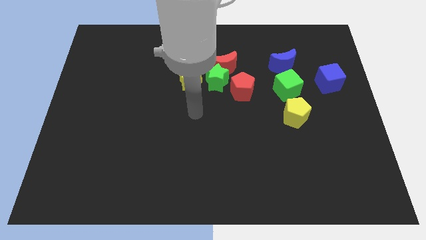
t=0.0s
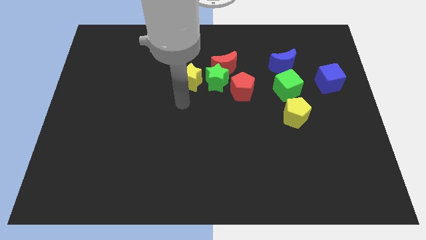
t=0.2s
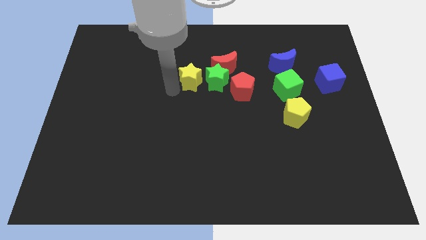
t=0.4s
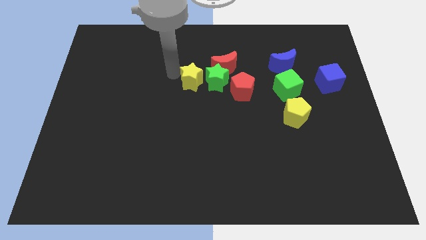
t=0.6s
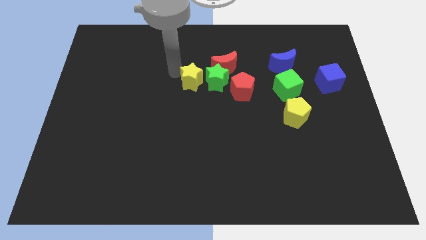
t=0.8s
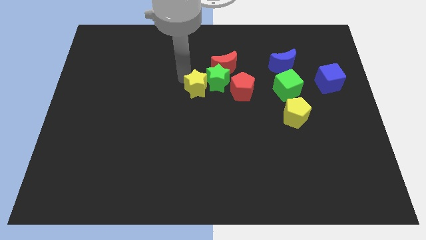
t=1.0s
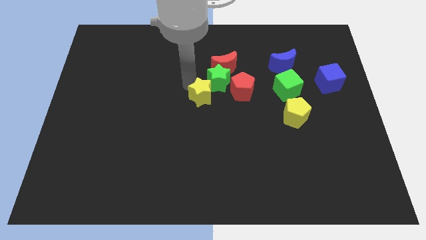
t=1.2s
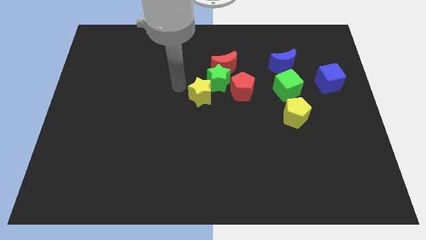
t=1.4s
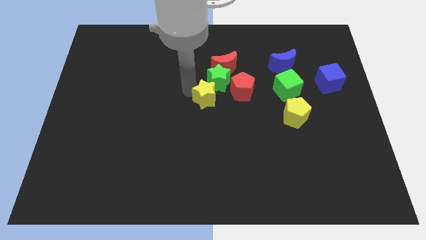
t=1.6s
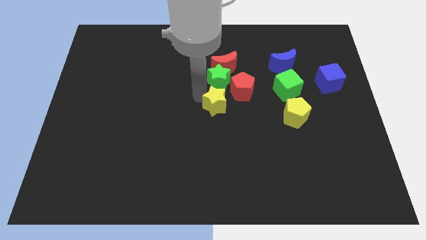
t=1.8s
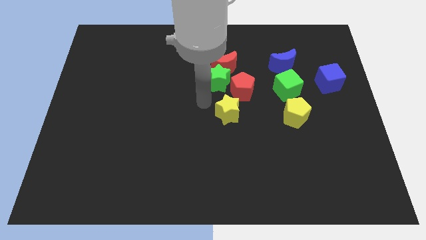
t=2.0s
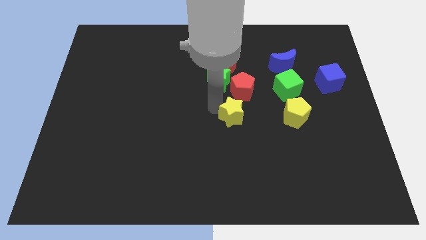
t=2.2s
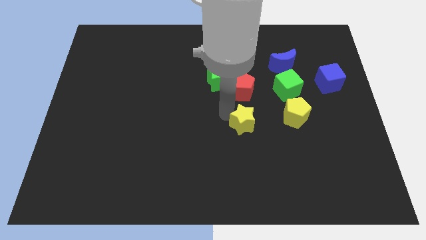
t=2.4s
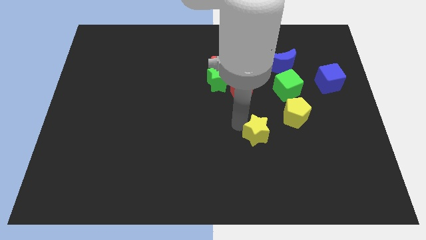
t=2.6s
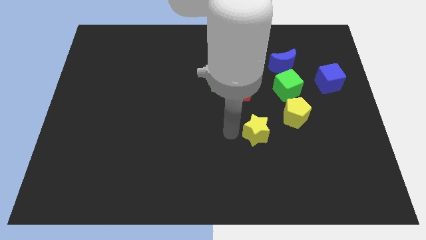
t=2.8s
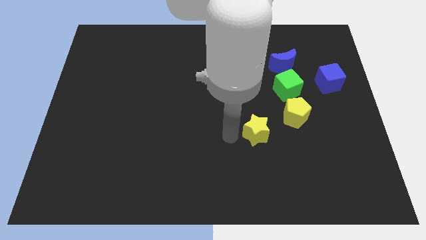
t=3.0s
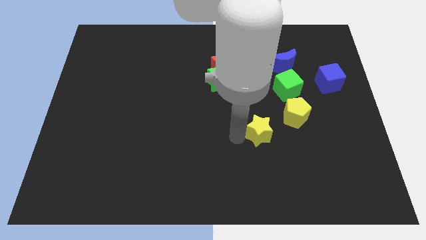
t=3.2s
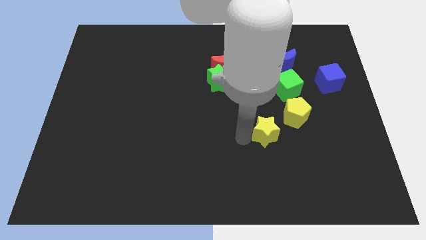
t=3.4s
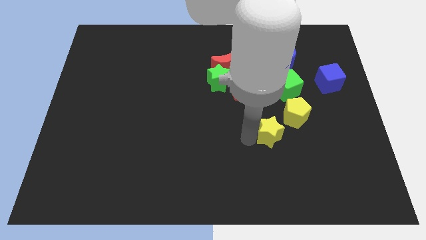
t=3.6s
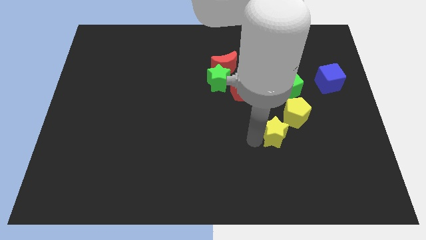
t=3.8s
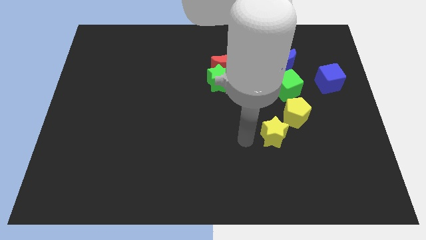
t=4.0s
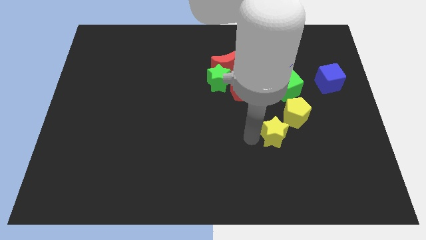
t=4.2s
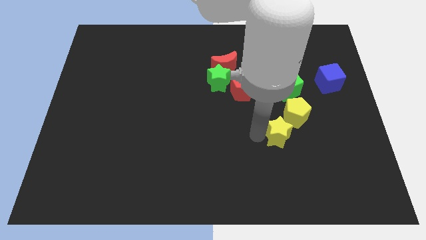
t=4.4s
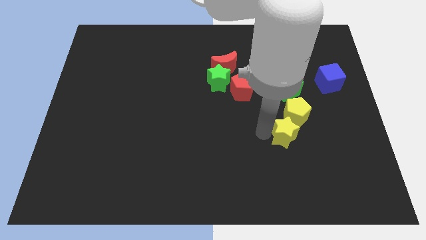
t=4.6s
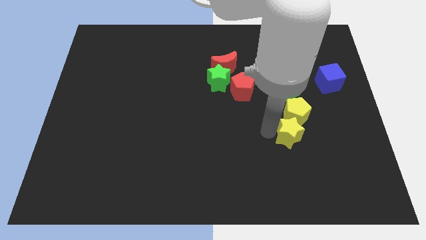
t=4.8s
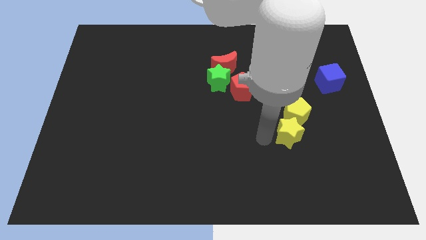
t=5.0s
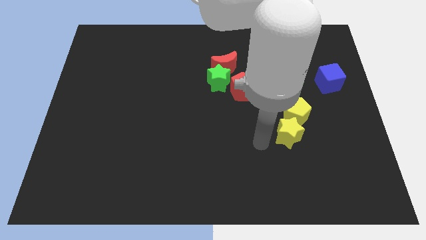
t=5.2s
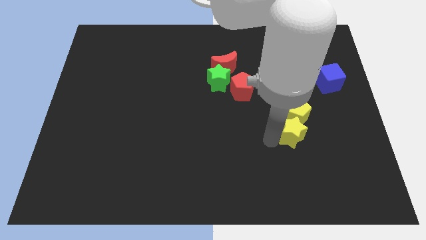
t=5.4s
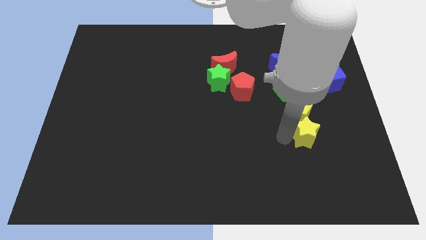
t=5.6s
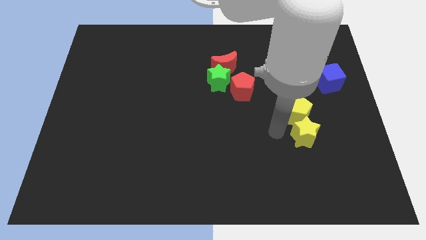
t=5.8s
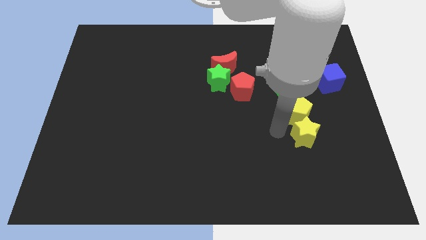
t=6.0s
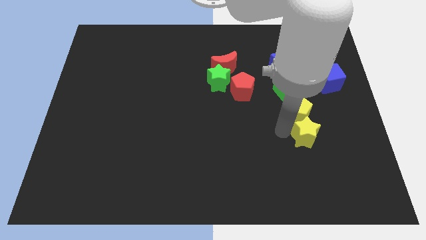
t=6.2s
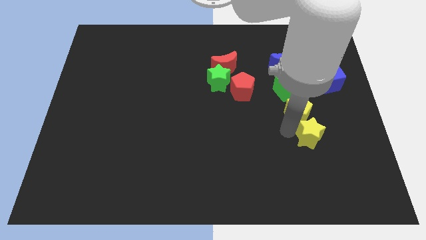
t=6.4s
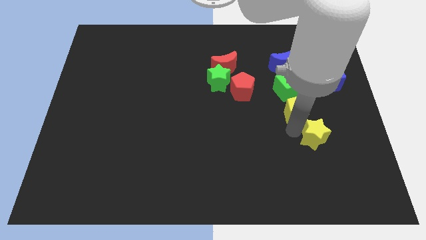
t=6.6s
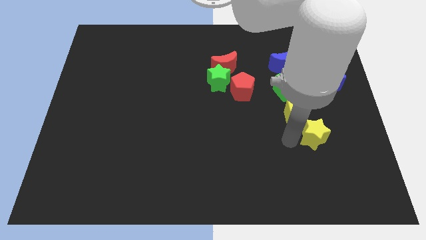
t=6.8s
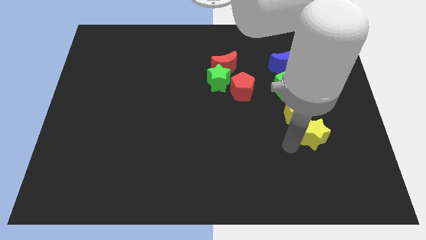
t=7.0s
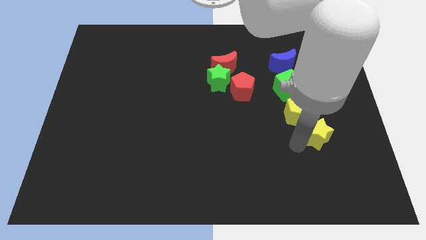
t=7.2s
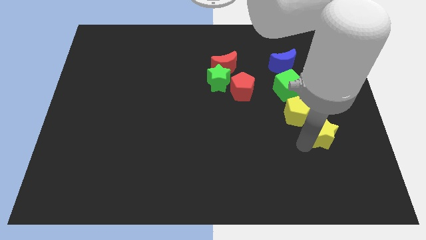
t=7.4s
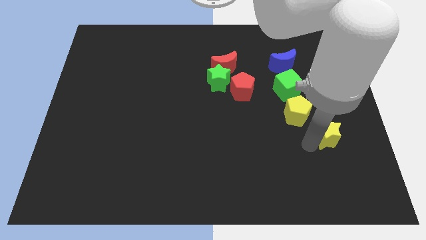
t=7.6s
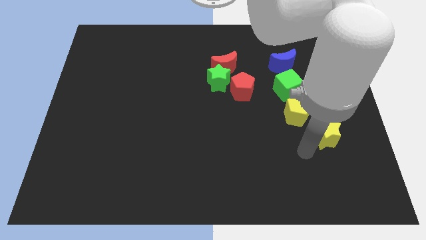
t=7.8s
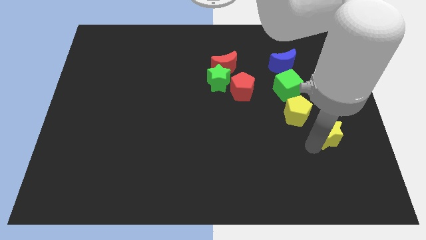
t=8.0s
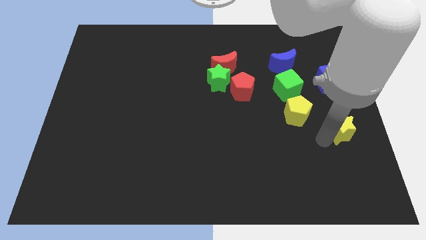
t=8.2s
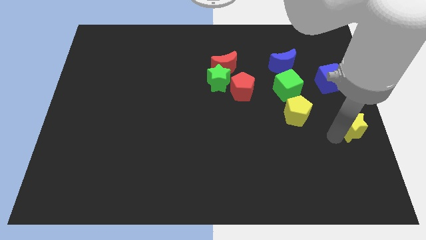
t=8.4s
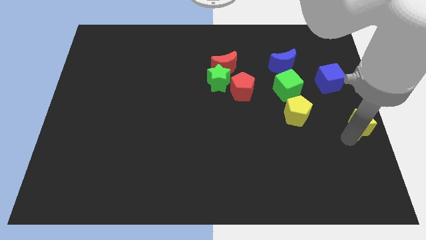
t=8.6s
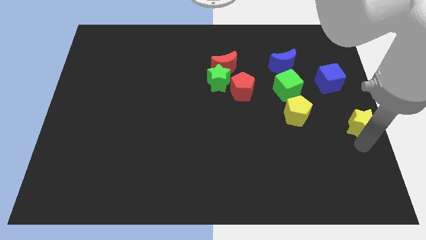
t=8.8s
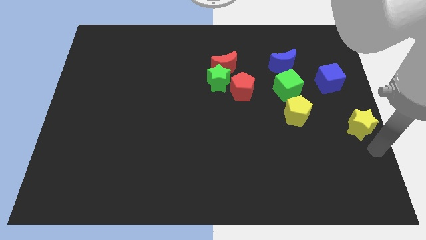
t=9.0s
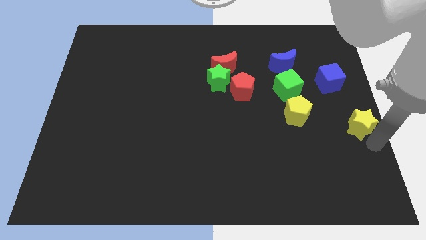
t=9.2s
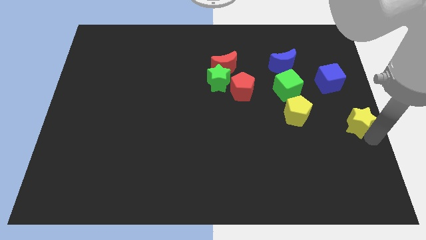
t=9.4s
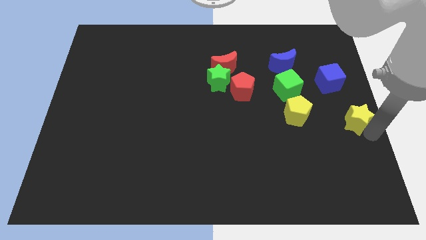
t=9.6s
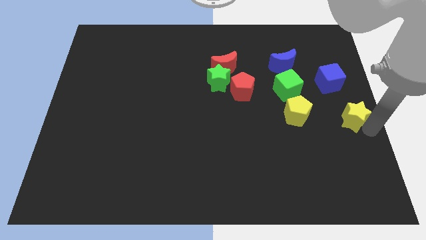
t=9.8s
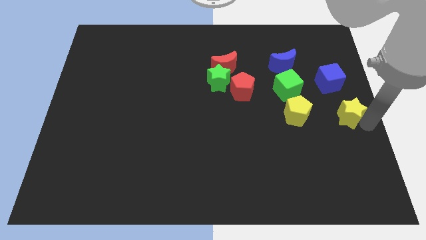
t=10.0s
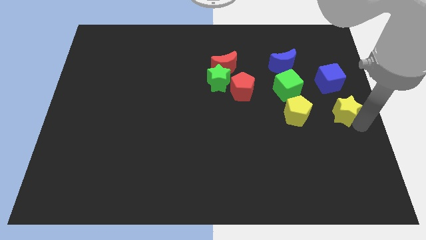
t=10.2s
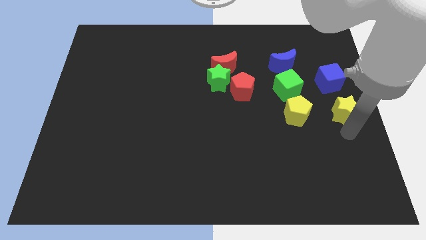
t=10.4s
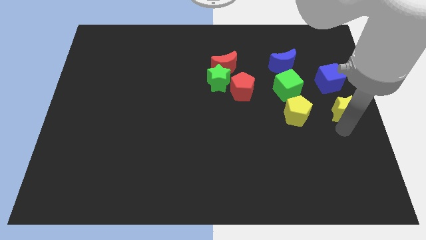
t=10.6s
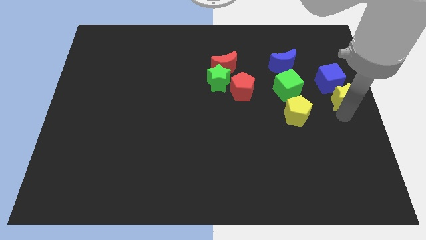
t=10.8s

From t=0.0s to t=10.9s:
put the yellow star to the right side of the green cube

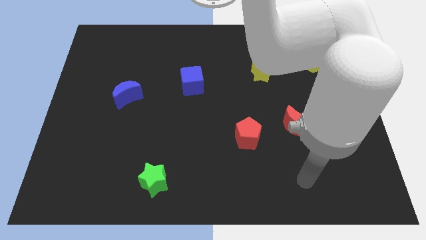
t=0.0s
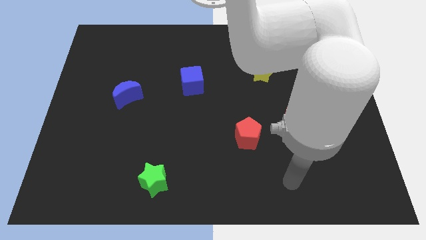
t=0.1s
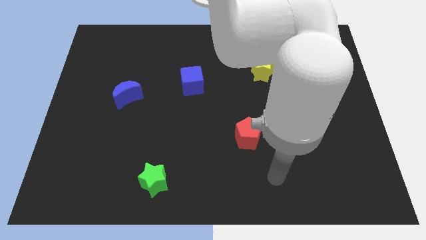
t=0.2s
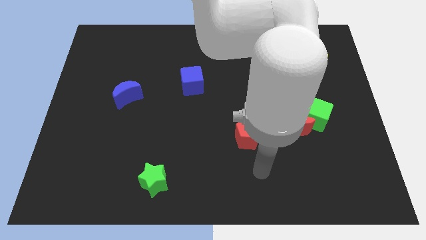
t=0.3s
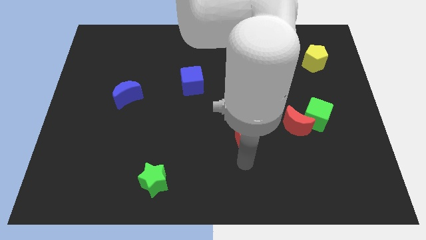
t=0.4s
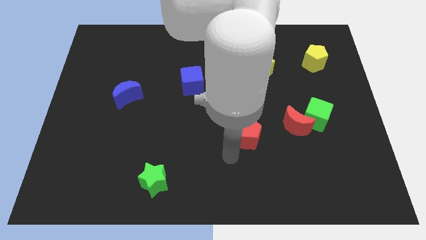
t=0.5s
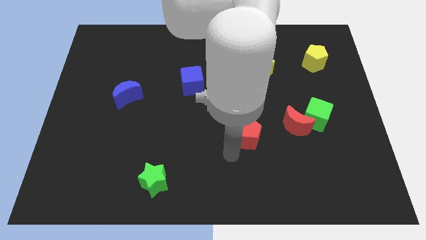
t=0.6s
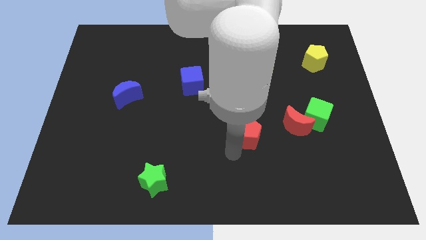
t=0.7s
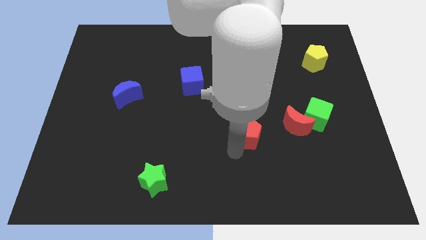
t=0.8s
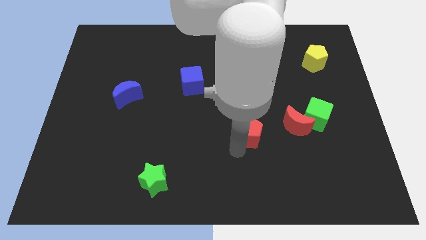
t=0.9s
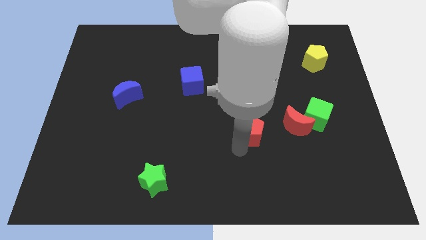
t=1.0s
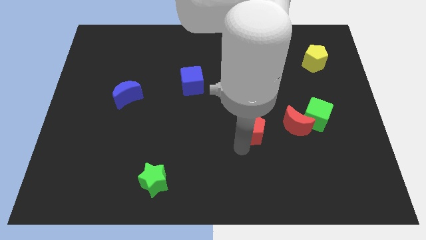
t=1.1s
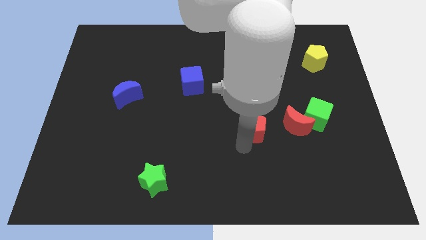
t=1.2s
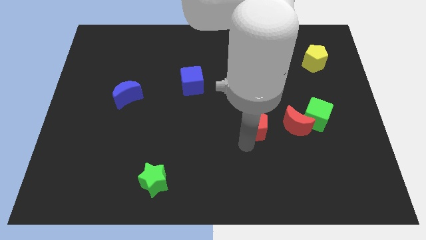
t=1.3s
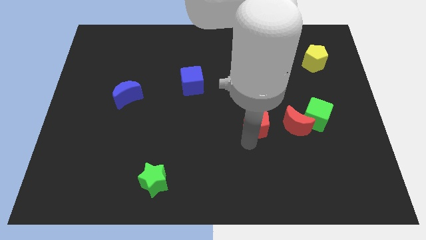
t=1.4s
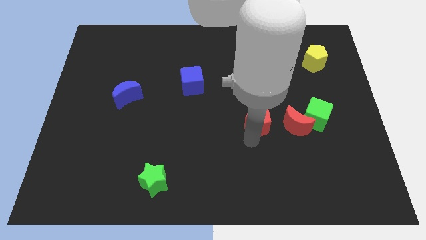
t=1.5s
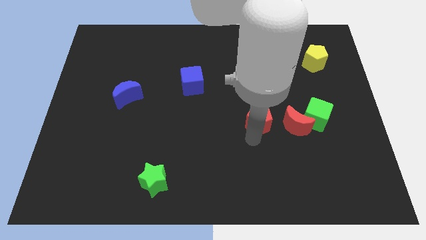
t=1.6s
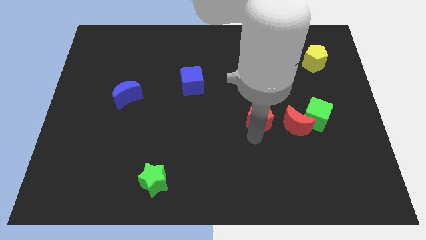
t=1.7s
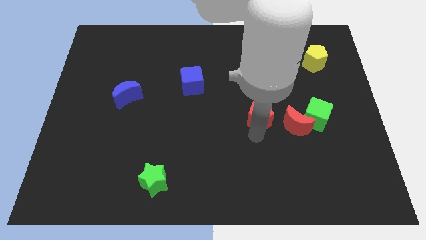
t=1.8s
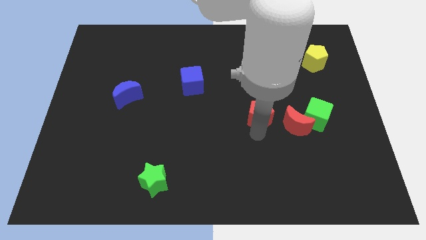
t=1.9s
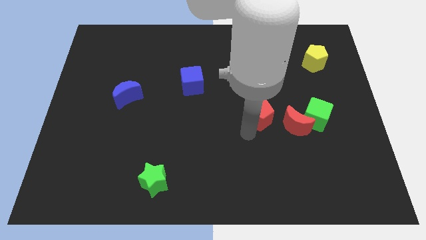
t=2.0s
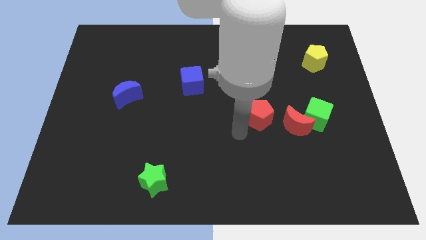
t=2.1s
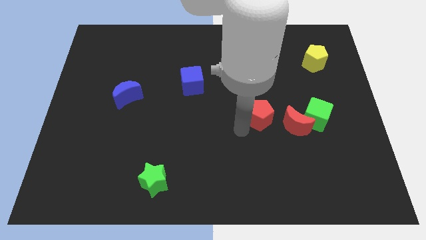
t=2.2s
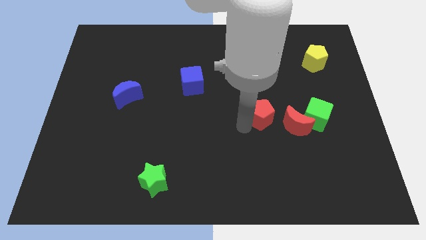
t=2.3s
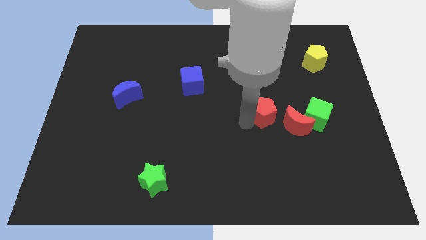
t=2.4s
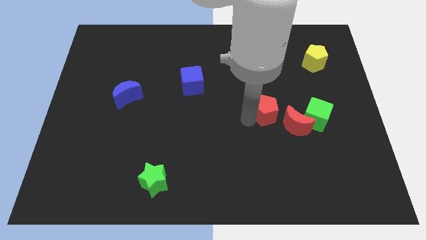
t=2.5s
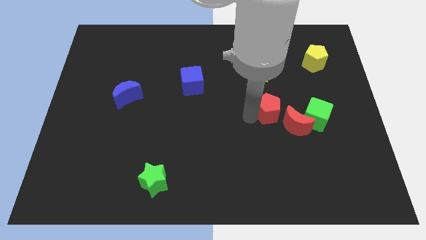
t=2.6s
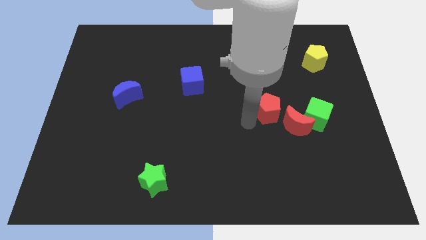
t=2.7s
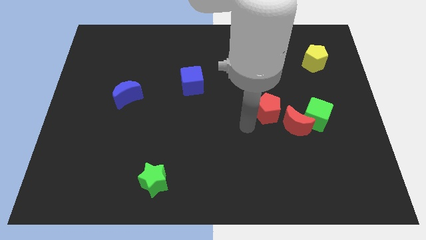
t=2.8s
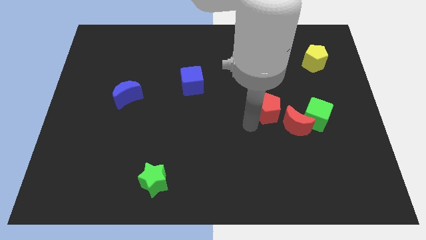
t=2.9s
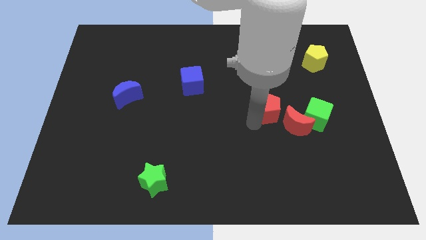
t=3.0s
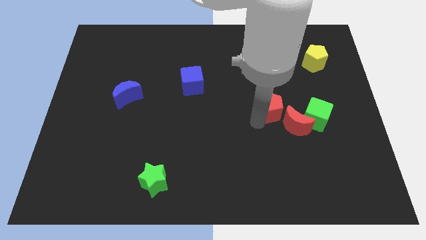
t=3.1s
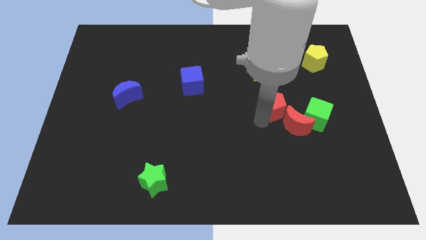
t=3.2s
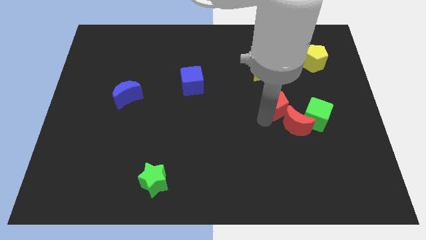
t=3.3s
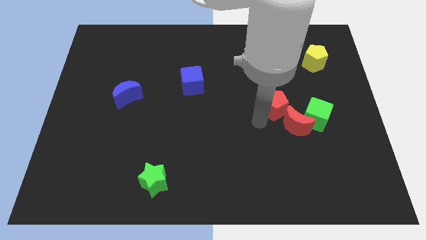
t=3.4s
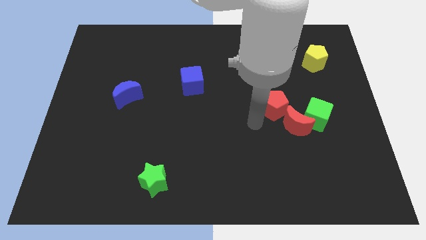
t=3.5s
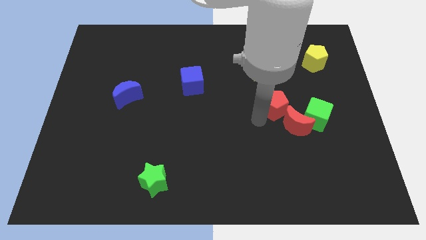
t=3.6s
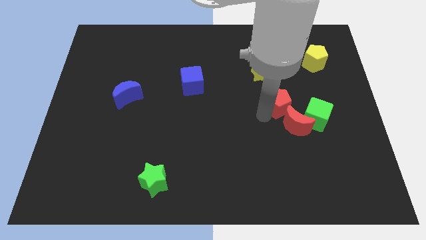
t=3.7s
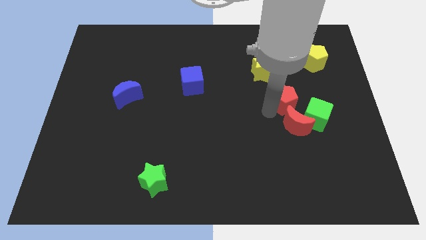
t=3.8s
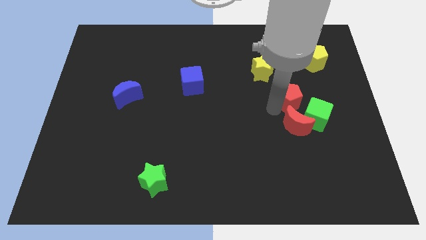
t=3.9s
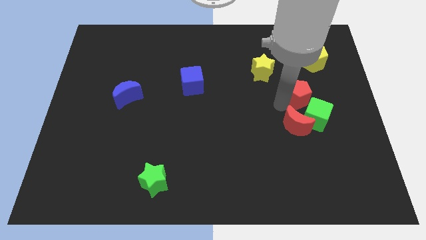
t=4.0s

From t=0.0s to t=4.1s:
put the red pentagon above the green cube
